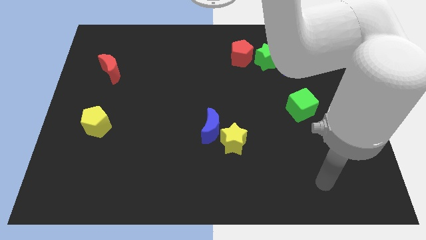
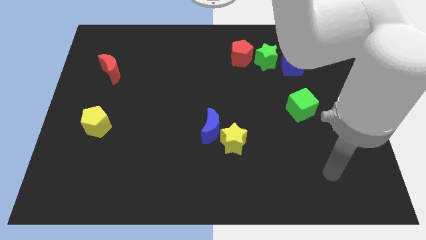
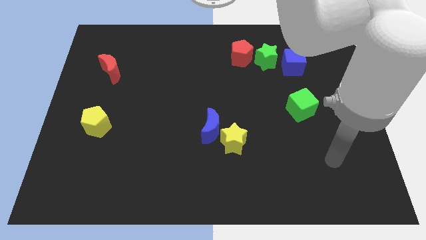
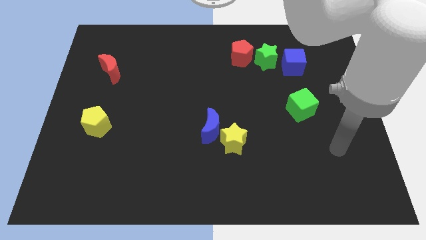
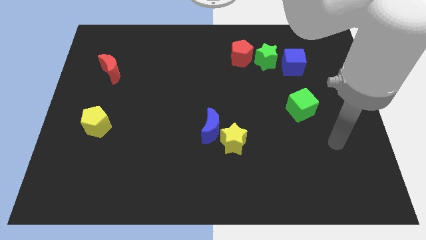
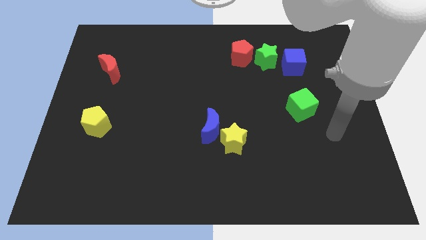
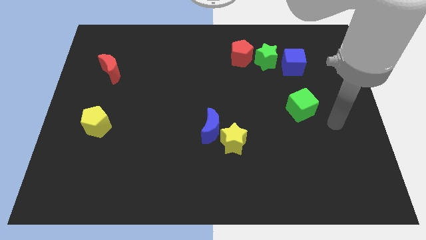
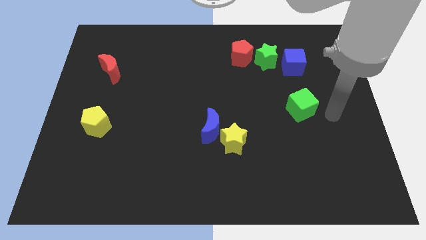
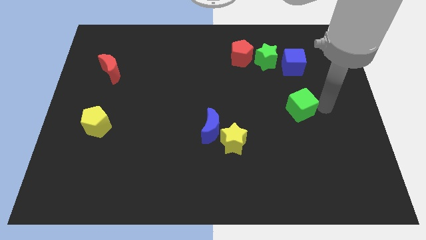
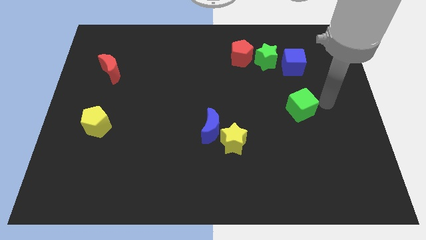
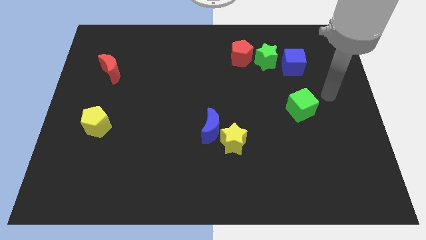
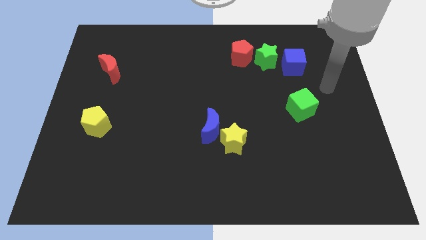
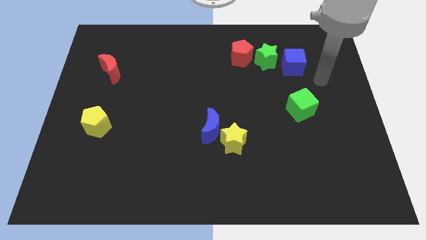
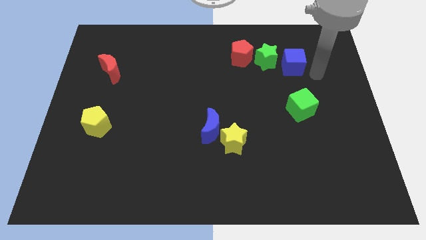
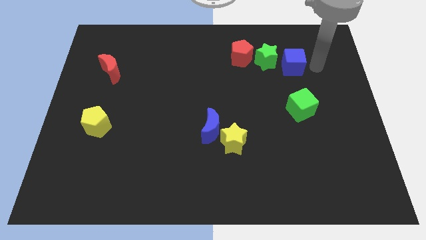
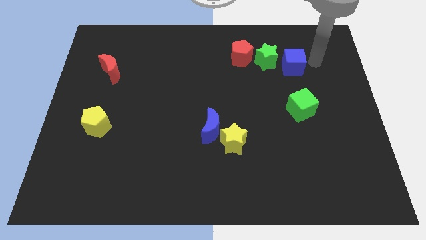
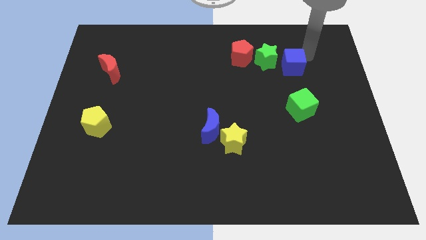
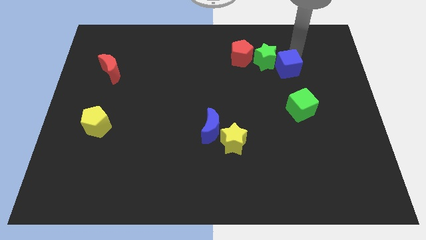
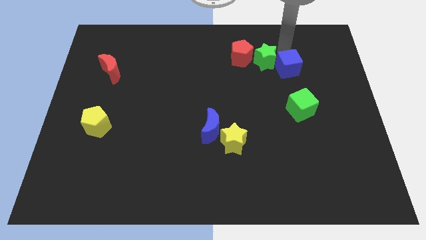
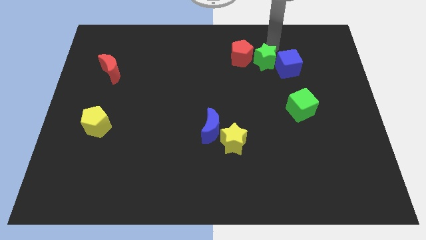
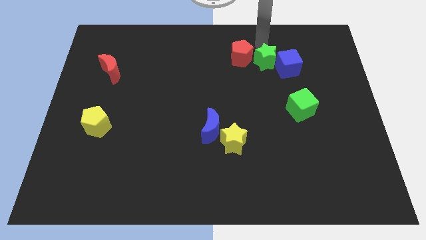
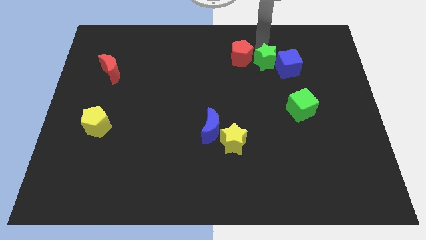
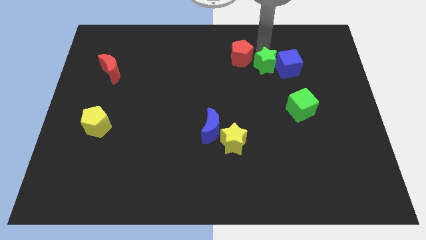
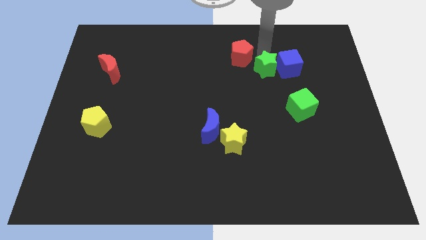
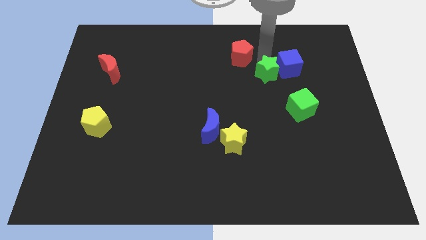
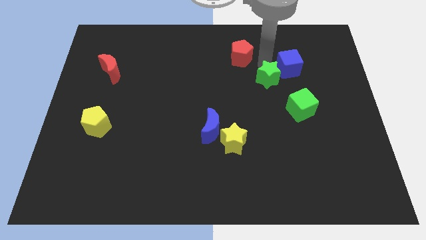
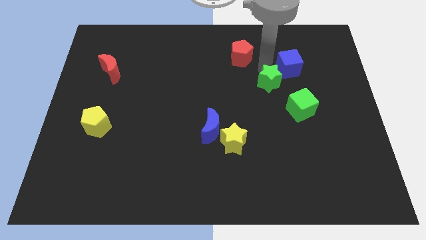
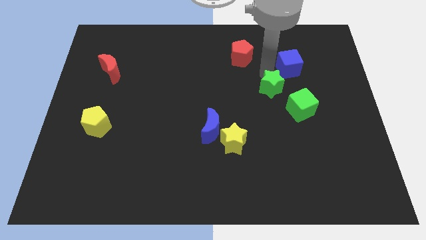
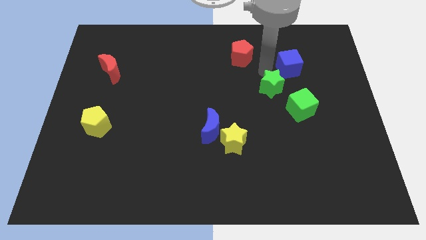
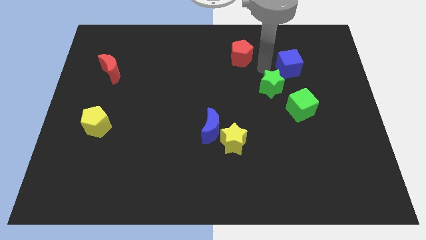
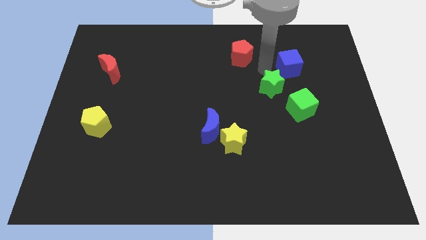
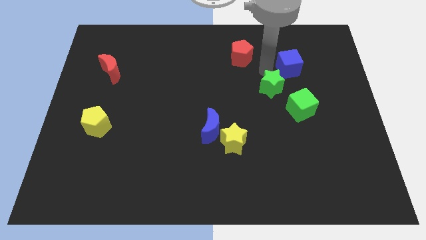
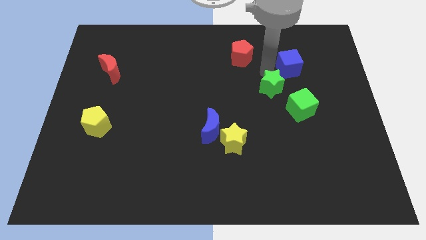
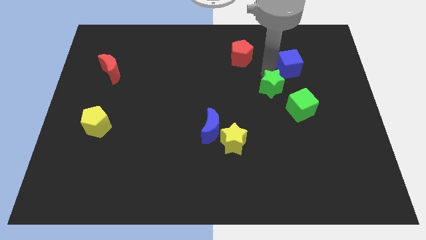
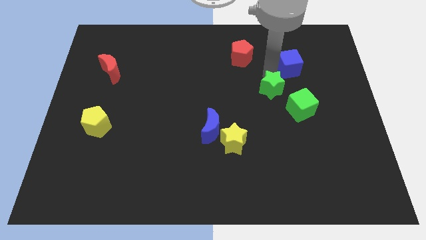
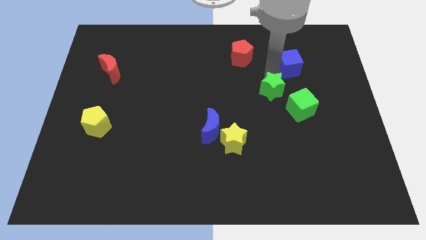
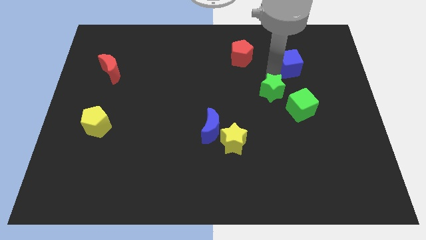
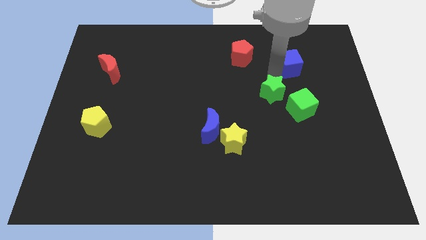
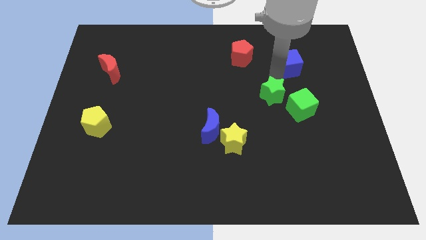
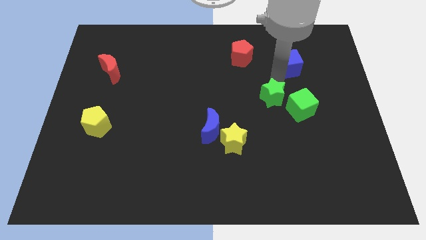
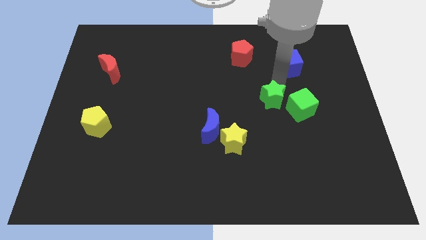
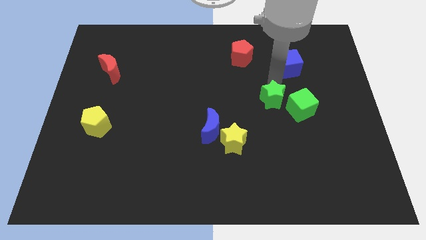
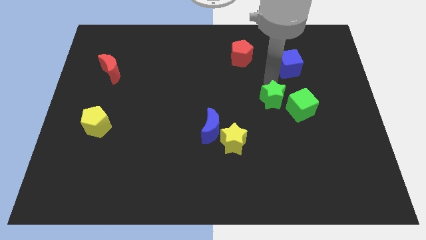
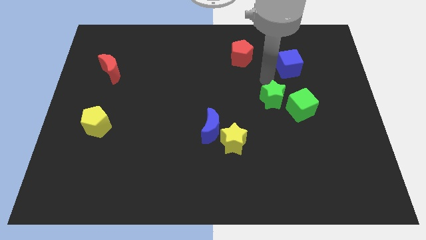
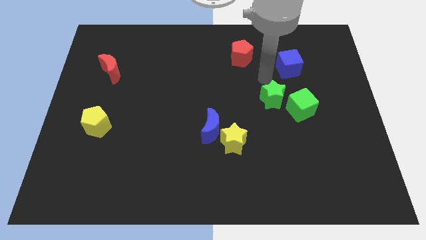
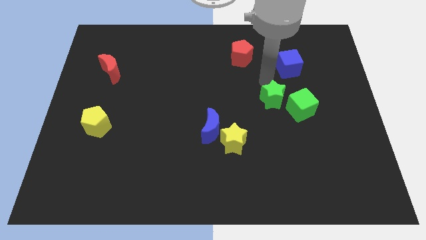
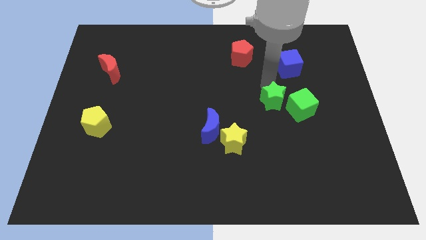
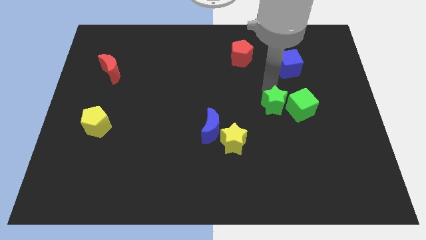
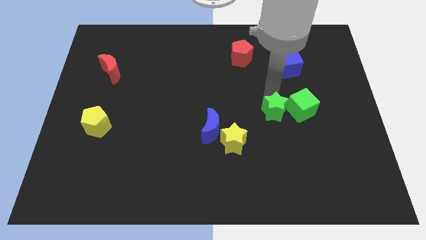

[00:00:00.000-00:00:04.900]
put the green star to the bottom left of the green cube

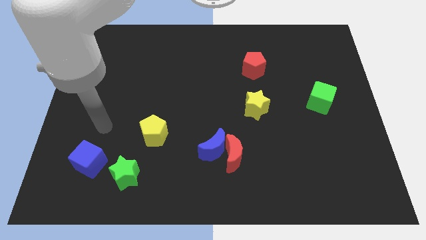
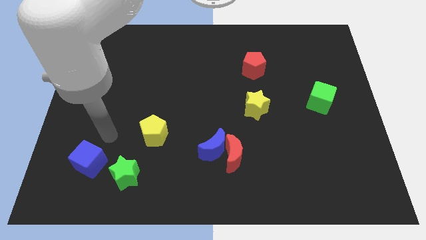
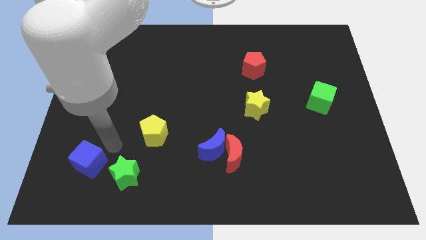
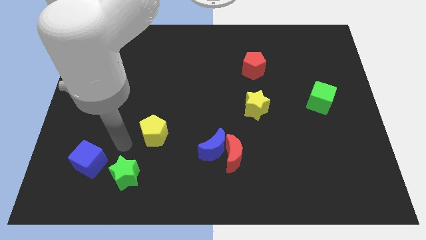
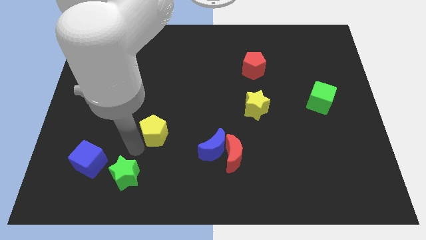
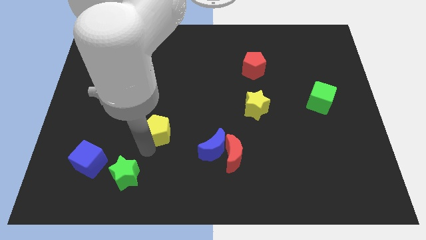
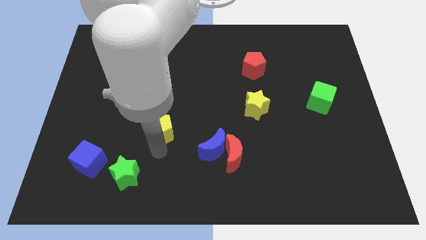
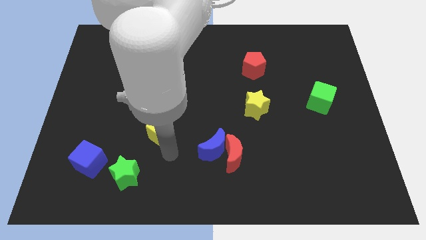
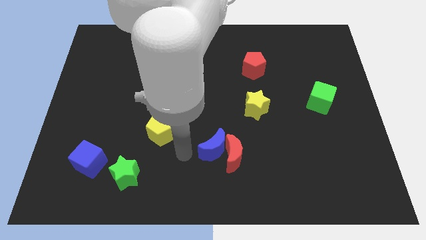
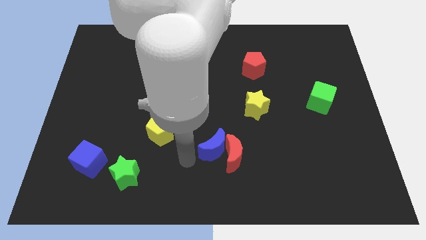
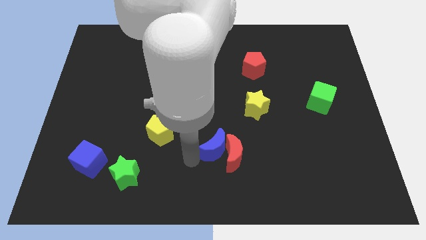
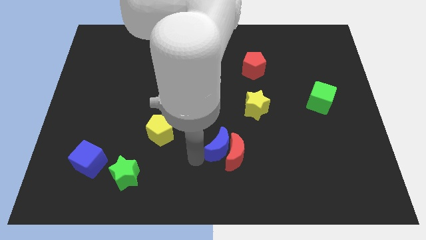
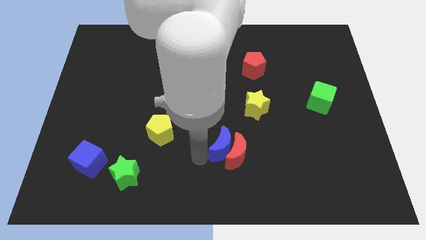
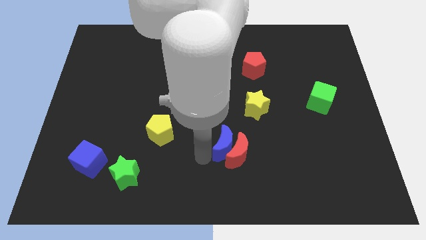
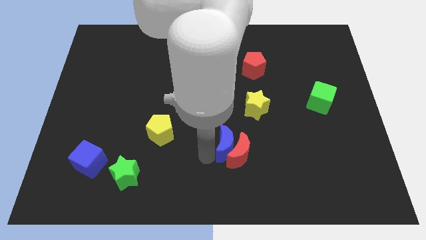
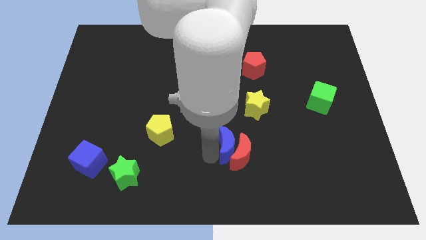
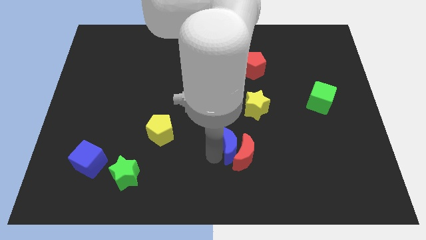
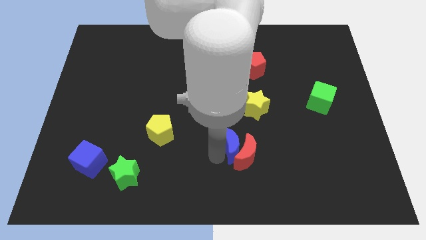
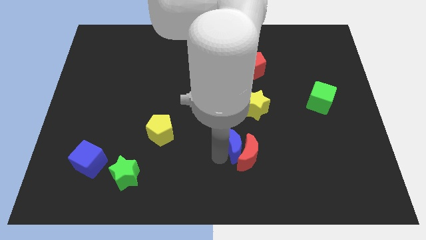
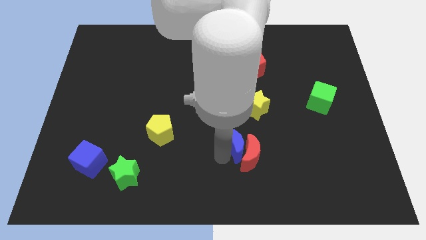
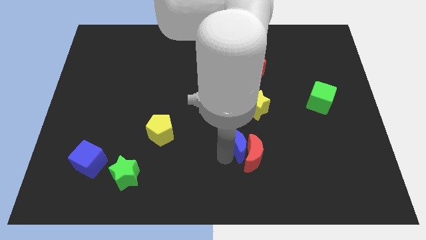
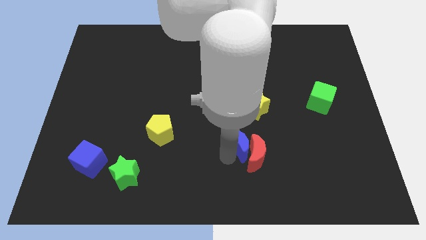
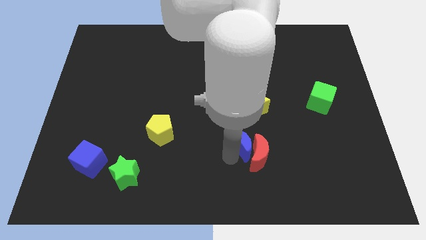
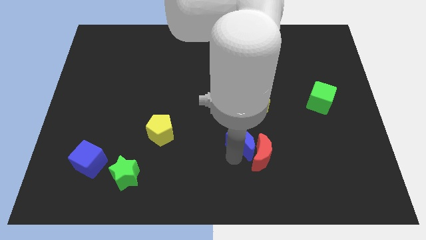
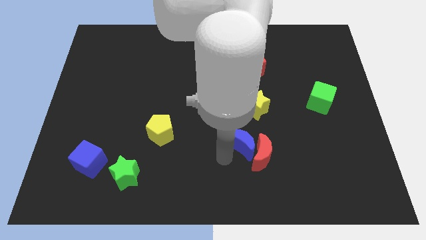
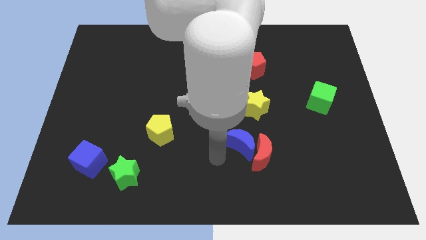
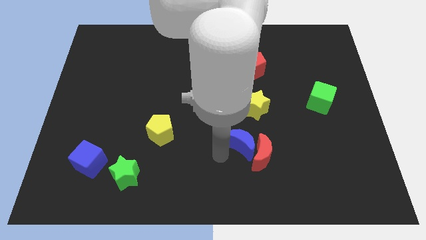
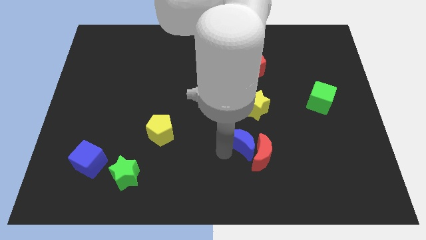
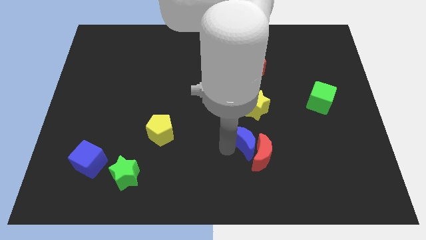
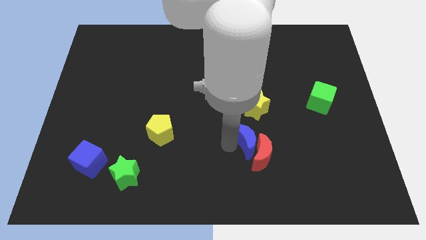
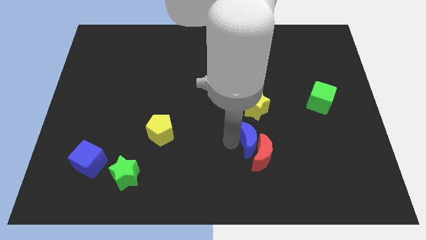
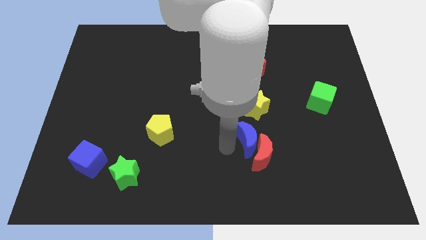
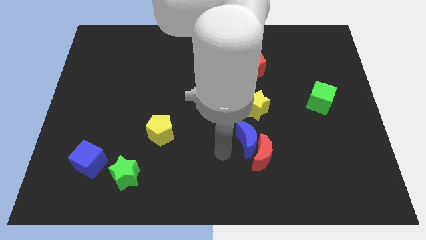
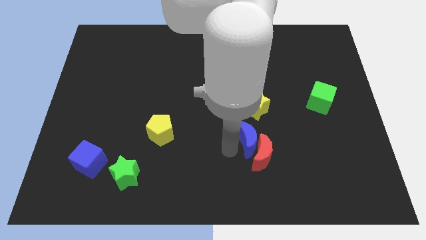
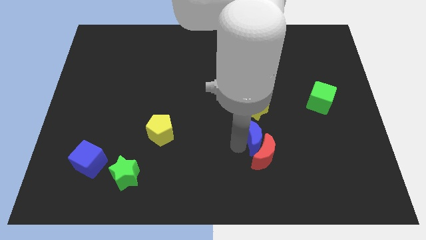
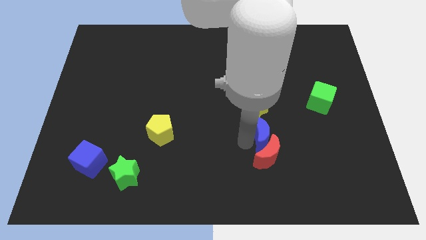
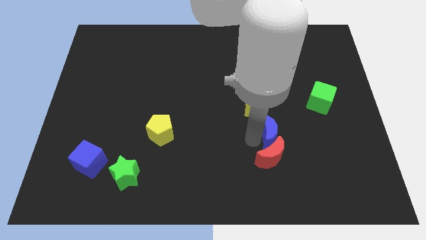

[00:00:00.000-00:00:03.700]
put the blue moon diagonally down and to the right of the yellow star
